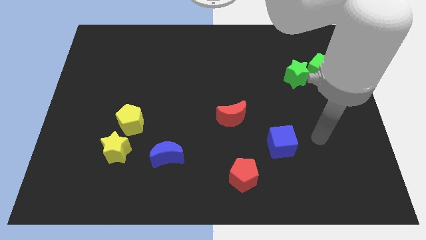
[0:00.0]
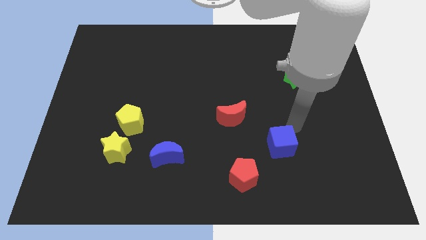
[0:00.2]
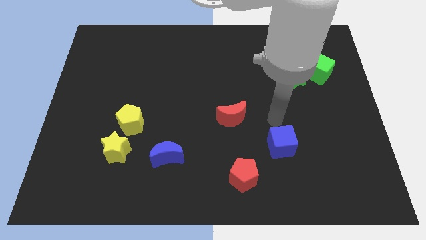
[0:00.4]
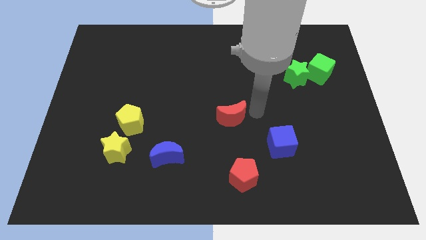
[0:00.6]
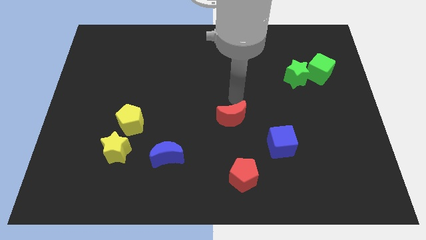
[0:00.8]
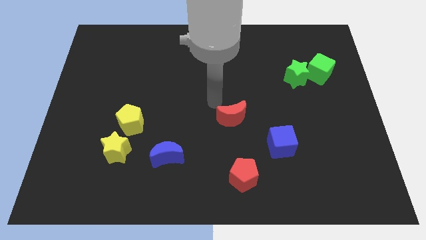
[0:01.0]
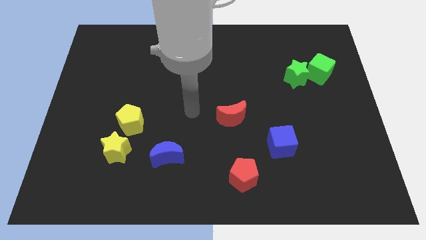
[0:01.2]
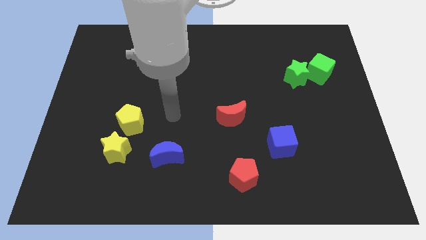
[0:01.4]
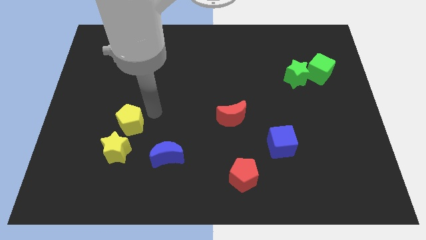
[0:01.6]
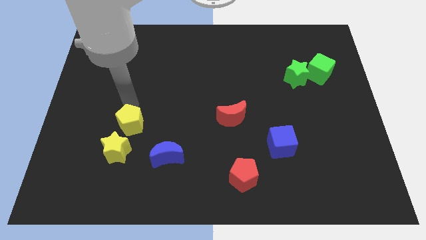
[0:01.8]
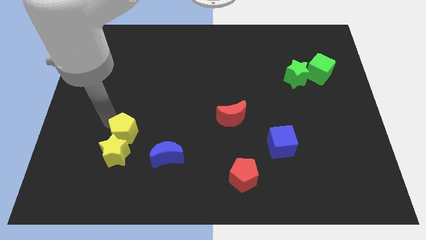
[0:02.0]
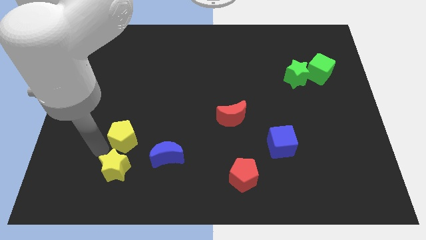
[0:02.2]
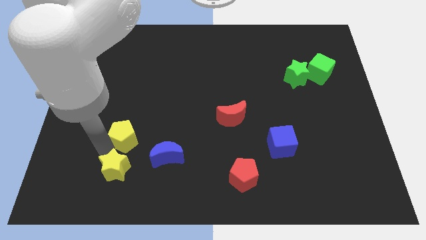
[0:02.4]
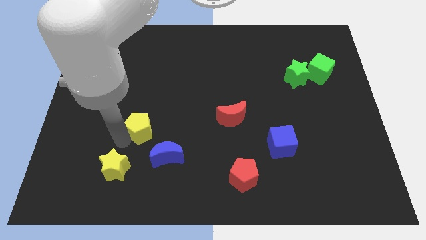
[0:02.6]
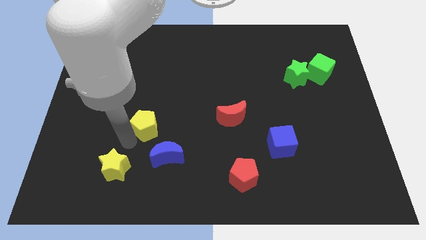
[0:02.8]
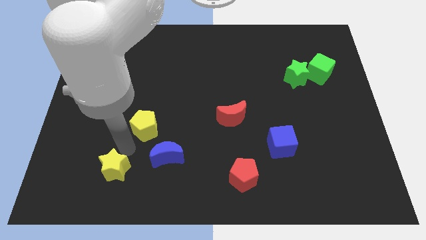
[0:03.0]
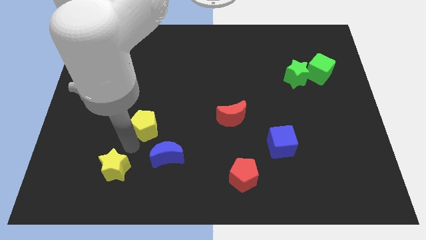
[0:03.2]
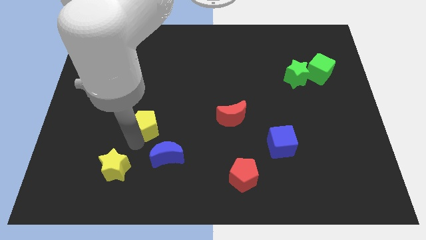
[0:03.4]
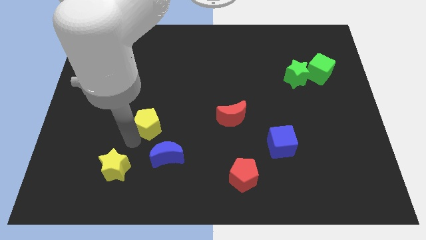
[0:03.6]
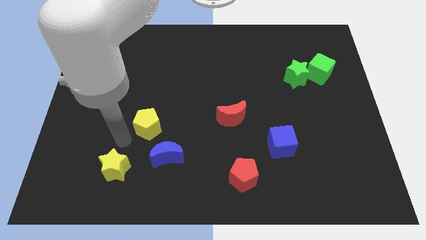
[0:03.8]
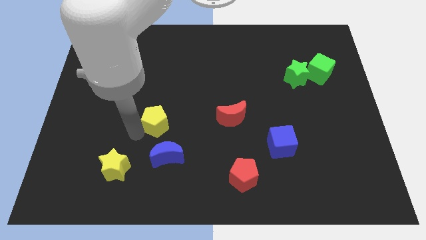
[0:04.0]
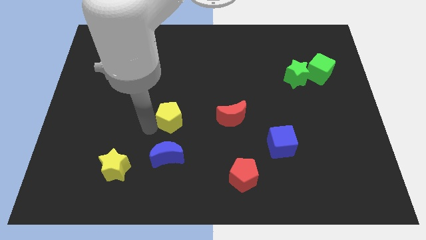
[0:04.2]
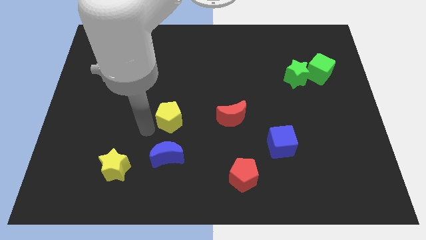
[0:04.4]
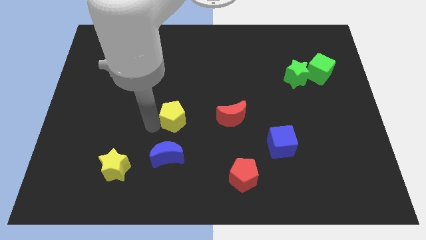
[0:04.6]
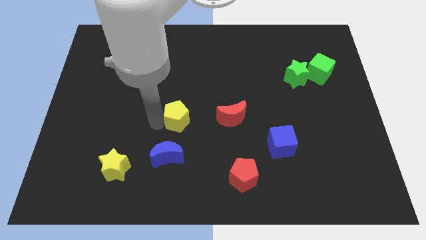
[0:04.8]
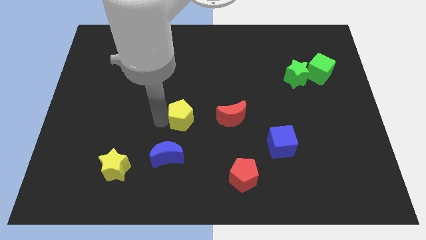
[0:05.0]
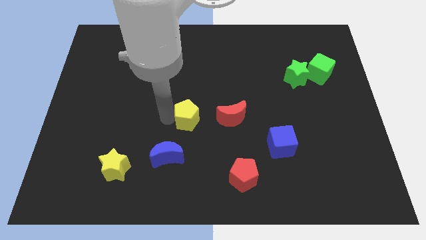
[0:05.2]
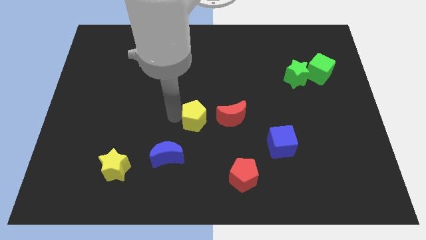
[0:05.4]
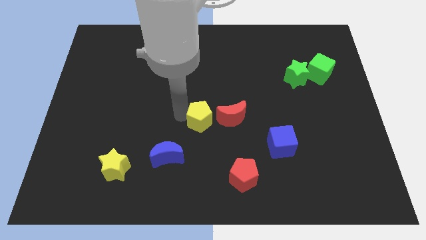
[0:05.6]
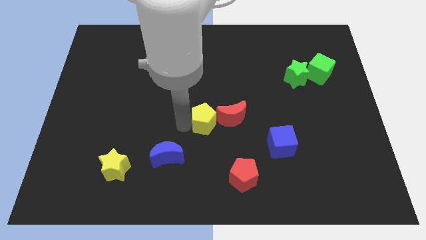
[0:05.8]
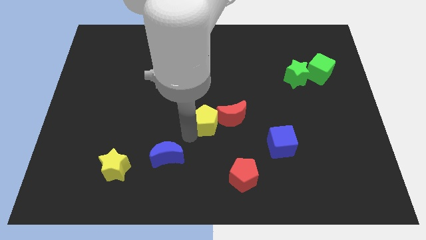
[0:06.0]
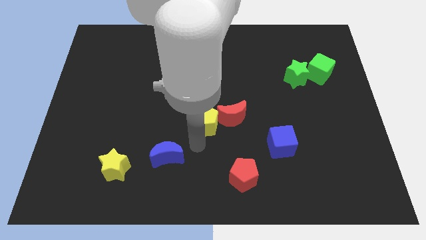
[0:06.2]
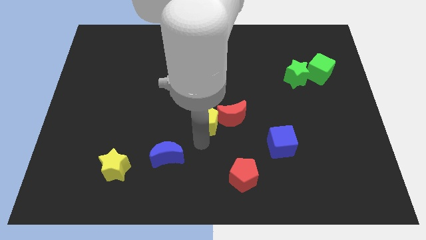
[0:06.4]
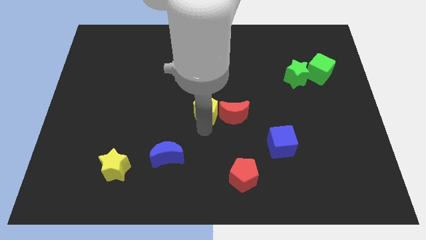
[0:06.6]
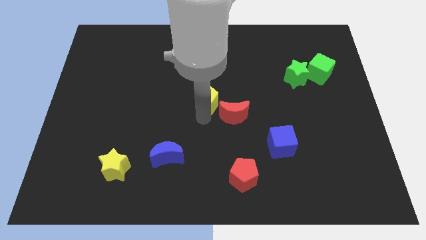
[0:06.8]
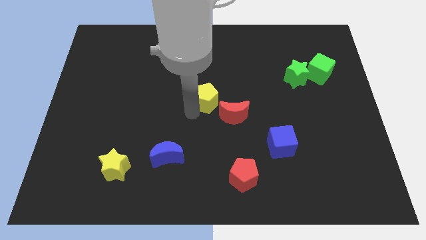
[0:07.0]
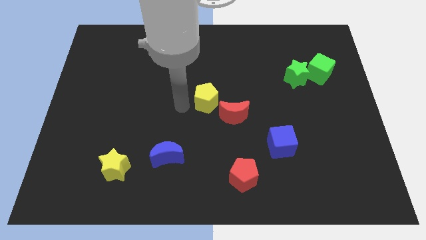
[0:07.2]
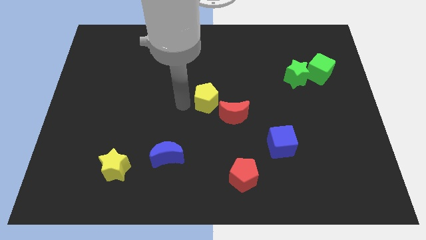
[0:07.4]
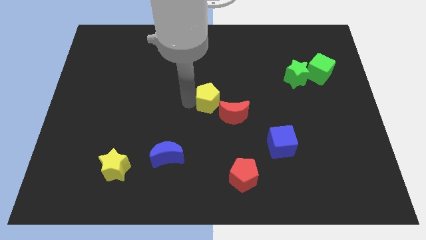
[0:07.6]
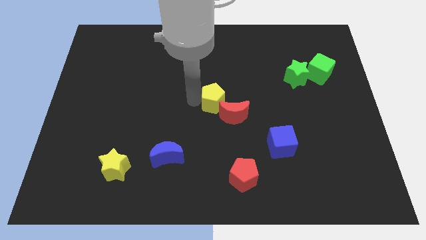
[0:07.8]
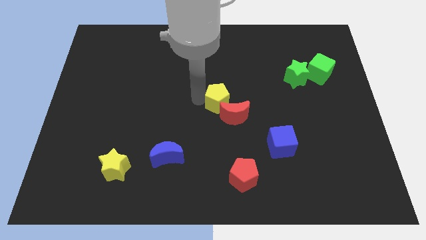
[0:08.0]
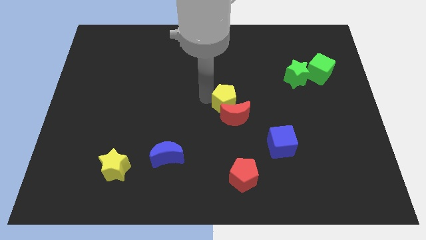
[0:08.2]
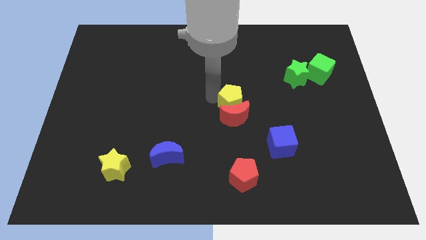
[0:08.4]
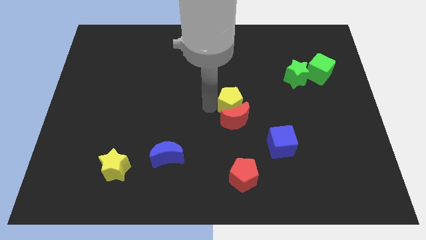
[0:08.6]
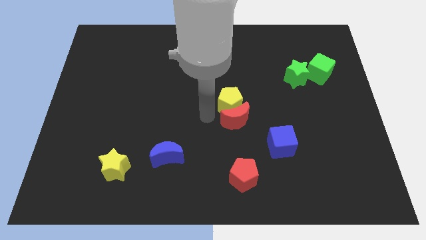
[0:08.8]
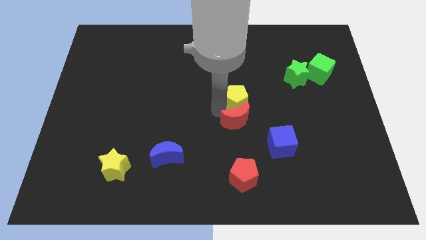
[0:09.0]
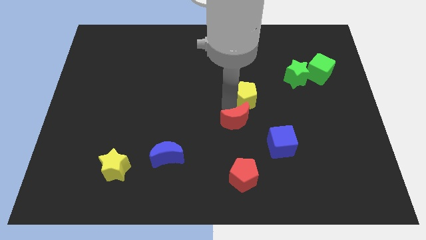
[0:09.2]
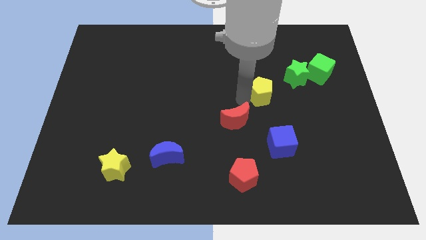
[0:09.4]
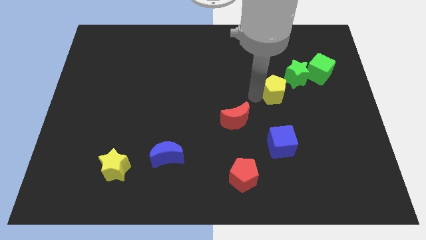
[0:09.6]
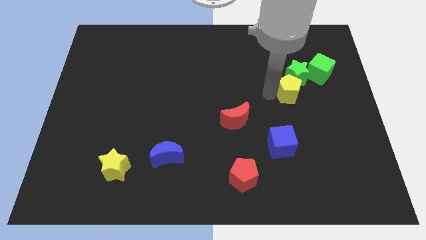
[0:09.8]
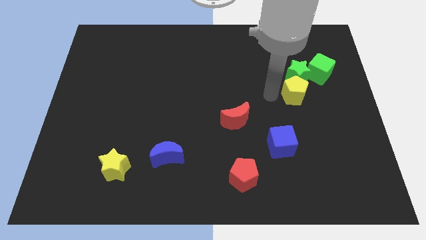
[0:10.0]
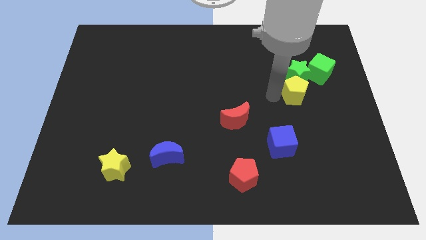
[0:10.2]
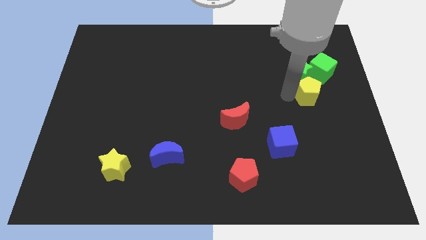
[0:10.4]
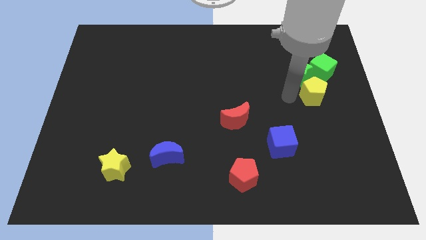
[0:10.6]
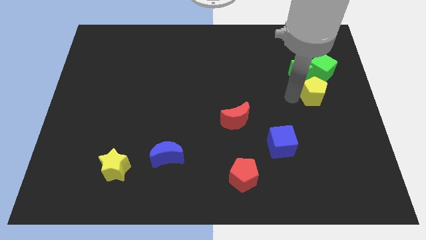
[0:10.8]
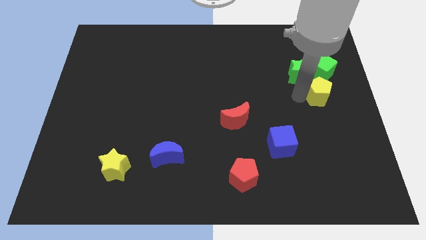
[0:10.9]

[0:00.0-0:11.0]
slide the yellow pentagon to the center right

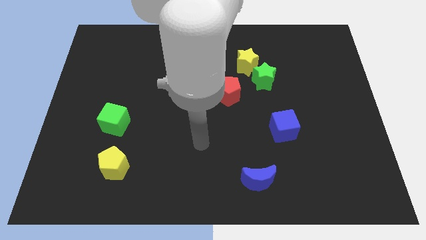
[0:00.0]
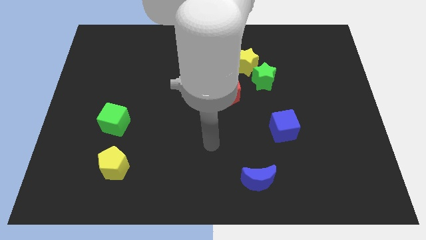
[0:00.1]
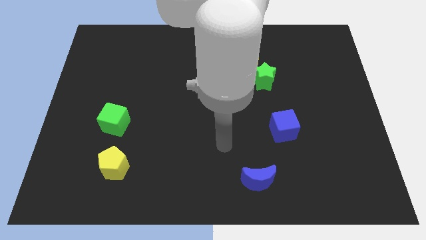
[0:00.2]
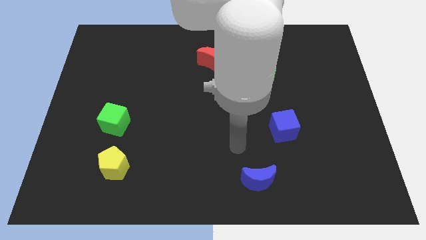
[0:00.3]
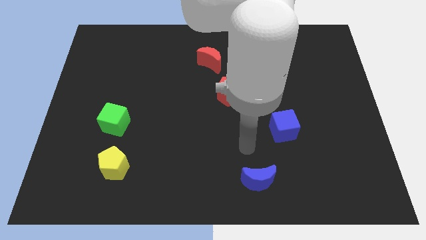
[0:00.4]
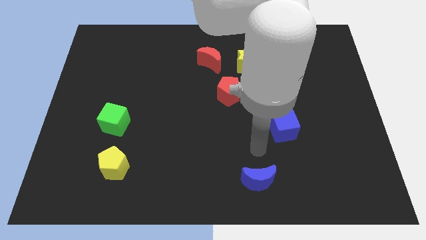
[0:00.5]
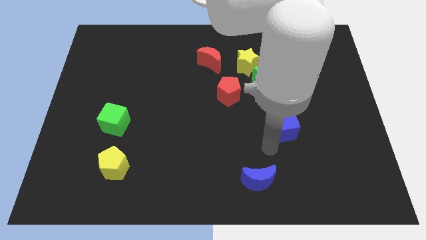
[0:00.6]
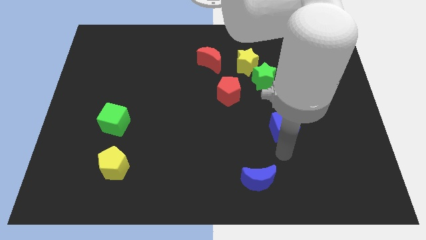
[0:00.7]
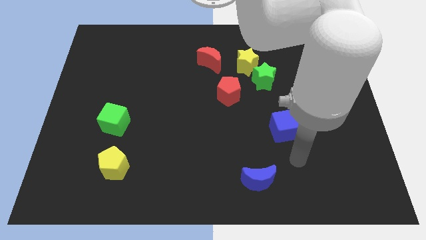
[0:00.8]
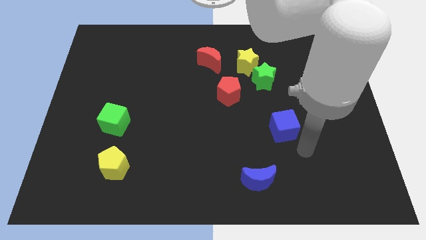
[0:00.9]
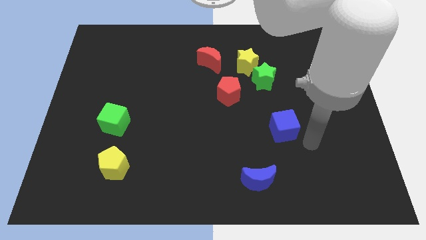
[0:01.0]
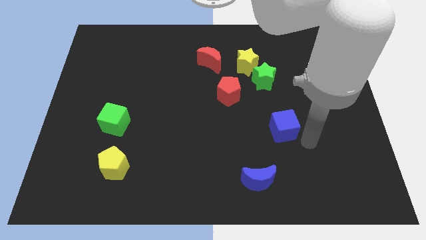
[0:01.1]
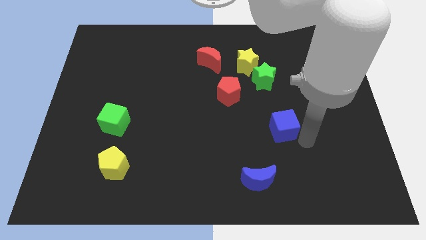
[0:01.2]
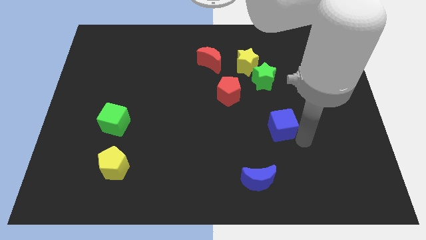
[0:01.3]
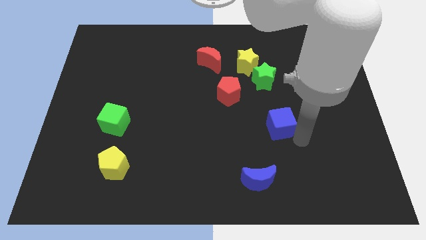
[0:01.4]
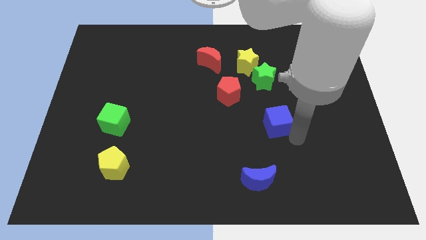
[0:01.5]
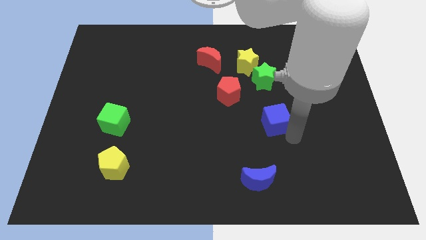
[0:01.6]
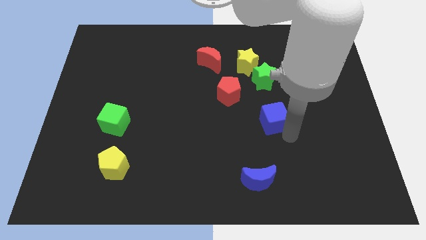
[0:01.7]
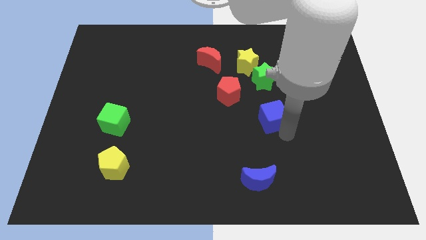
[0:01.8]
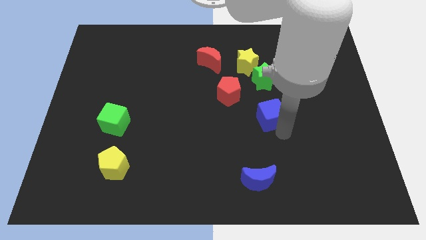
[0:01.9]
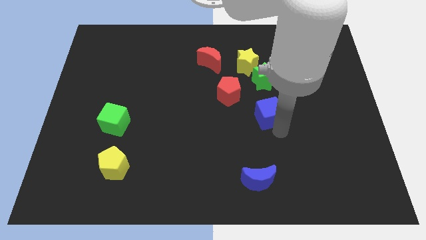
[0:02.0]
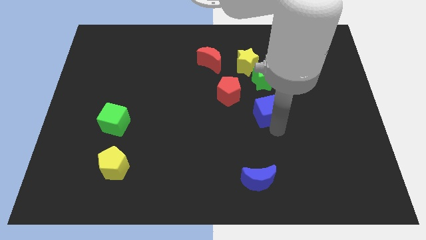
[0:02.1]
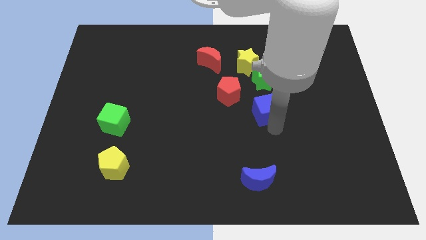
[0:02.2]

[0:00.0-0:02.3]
push the blue cube to the center
